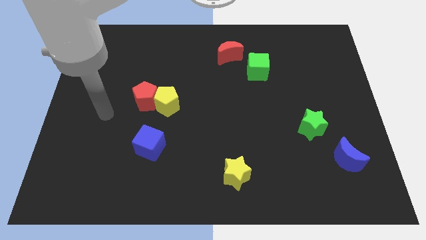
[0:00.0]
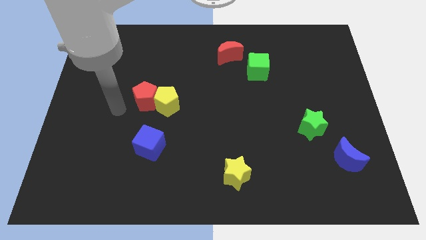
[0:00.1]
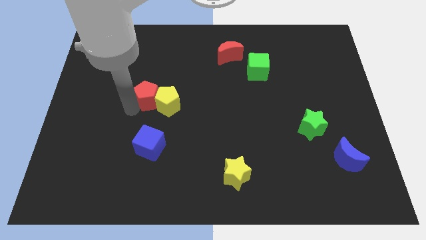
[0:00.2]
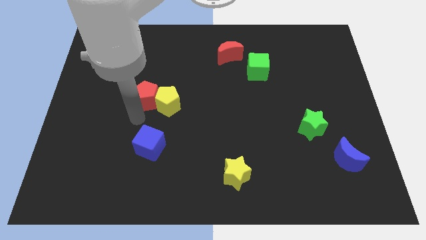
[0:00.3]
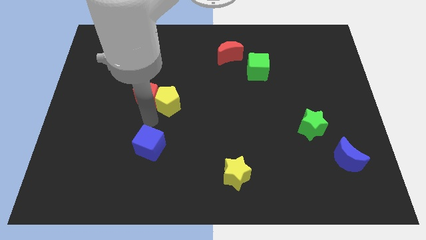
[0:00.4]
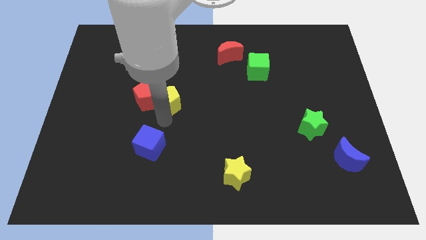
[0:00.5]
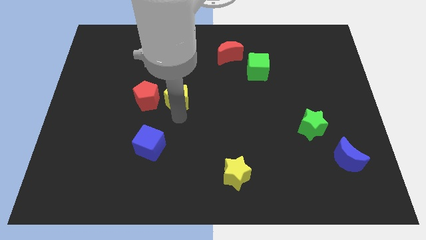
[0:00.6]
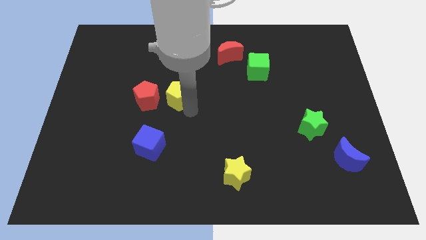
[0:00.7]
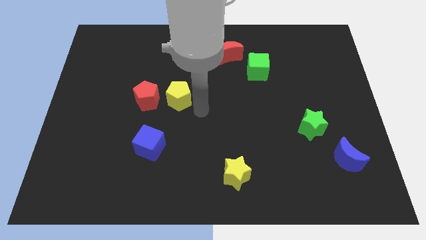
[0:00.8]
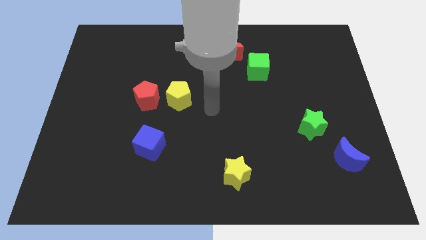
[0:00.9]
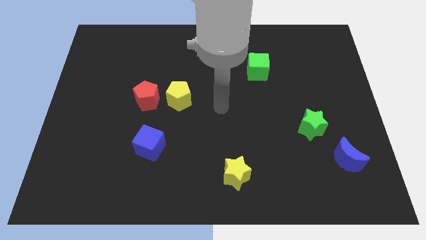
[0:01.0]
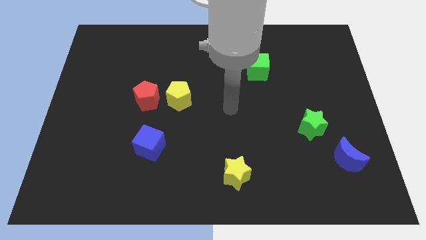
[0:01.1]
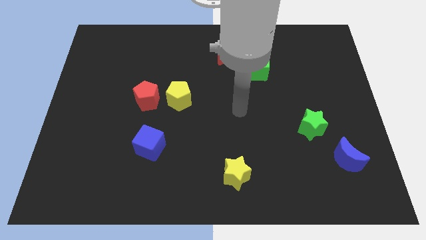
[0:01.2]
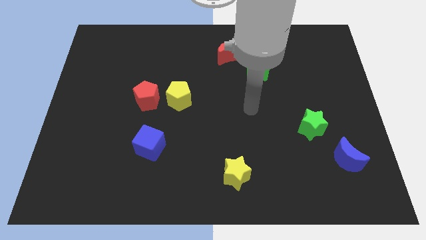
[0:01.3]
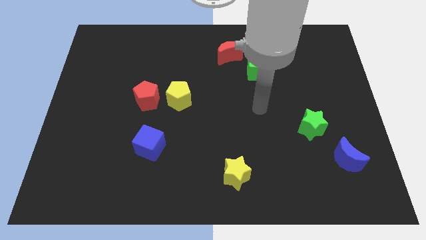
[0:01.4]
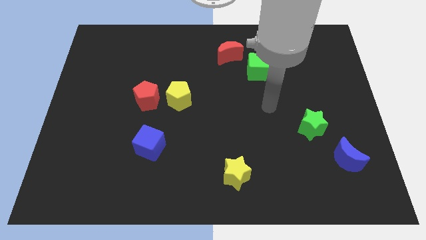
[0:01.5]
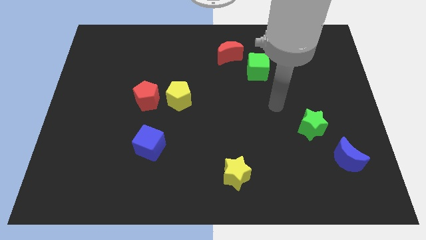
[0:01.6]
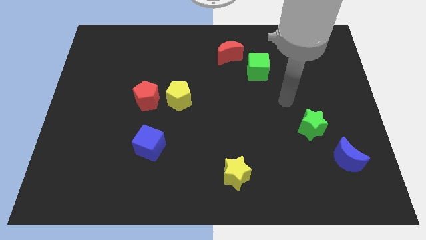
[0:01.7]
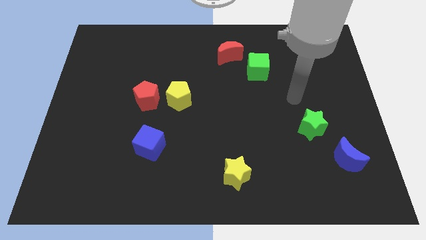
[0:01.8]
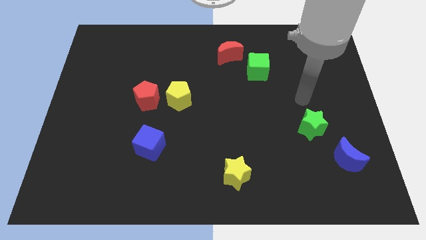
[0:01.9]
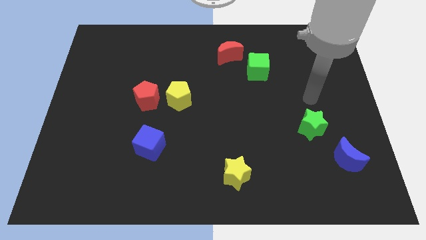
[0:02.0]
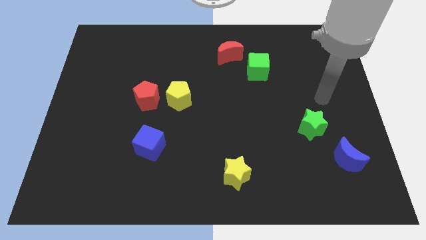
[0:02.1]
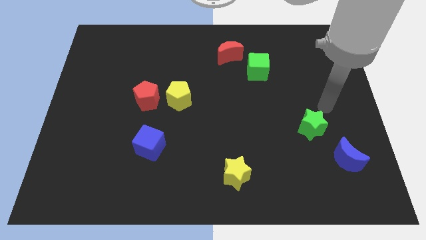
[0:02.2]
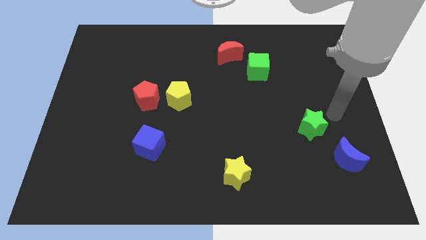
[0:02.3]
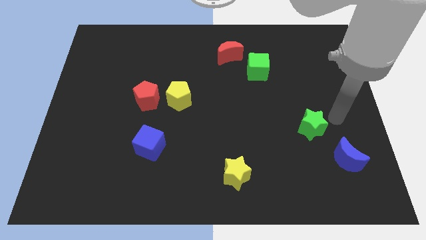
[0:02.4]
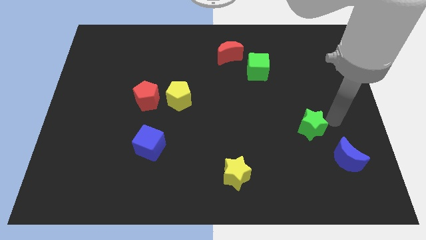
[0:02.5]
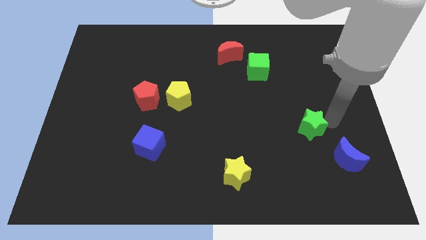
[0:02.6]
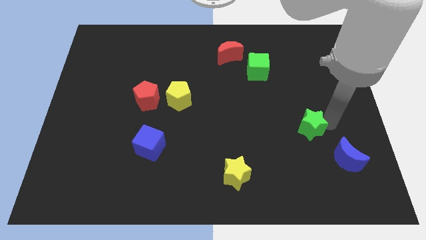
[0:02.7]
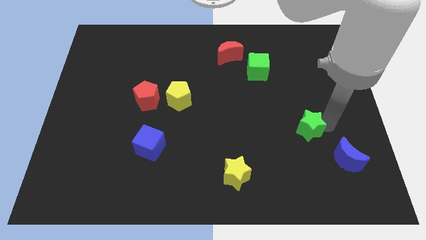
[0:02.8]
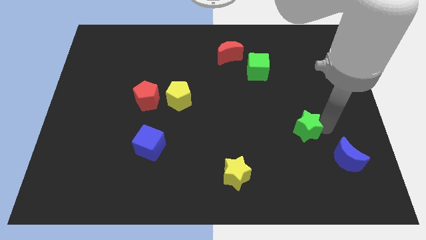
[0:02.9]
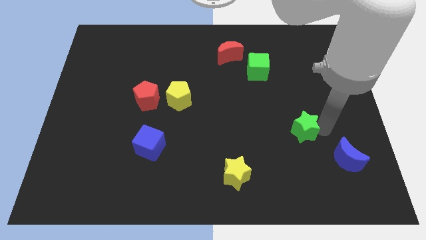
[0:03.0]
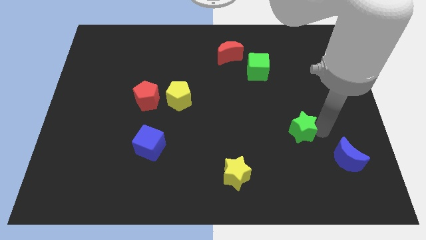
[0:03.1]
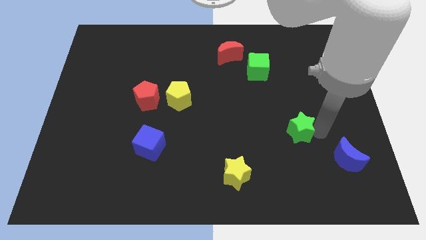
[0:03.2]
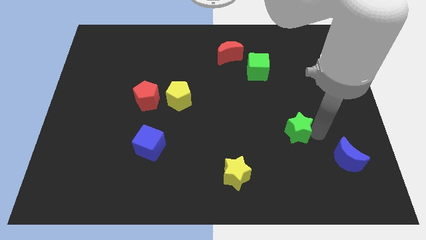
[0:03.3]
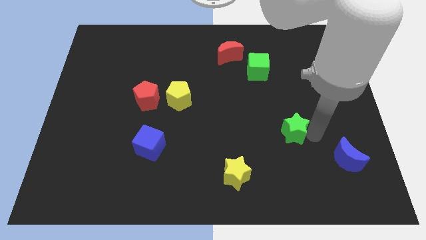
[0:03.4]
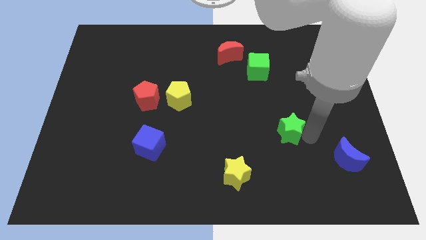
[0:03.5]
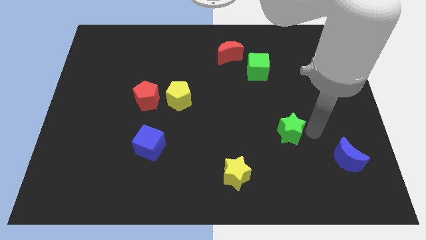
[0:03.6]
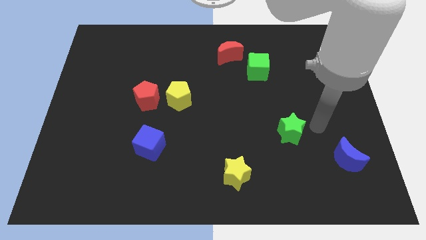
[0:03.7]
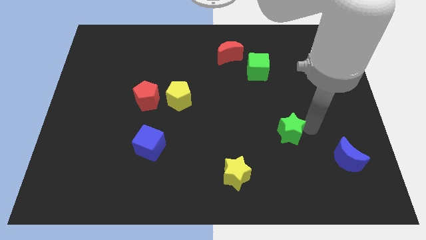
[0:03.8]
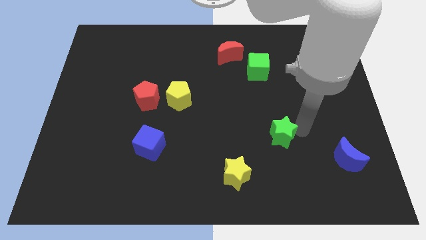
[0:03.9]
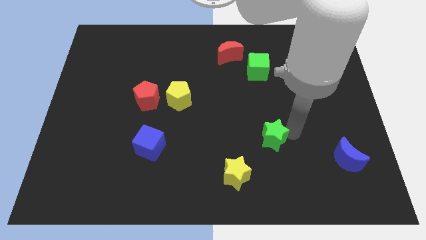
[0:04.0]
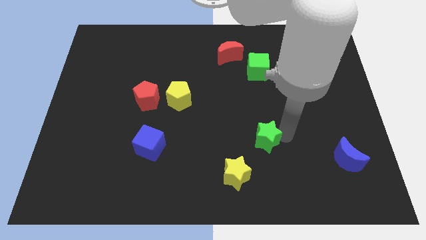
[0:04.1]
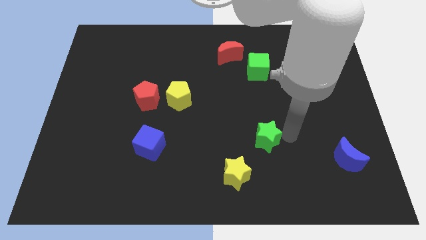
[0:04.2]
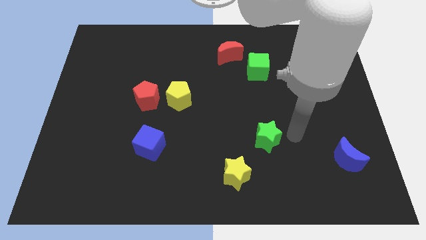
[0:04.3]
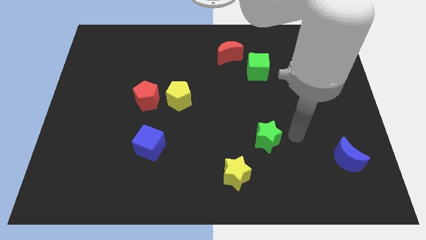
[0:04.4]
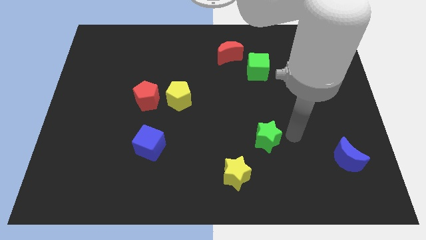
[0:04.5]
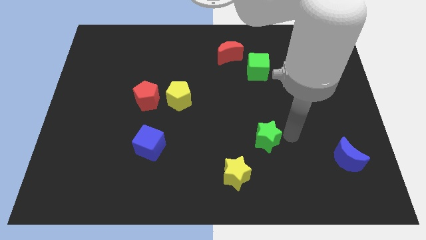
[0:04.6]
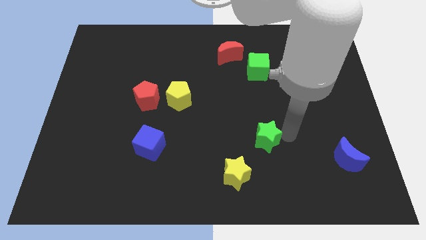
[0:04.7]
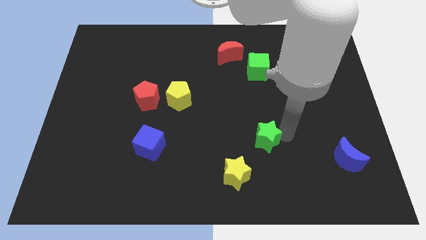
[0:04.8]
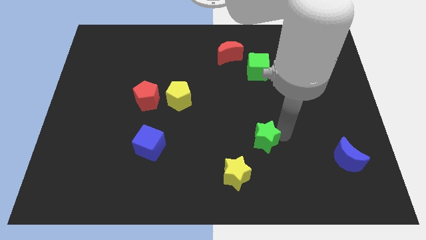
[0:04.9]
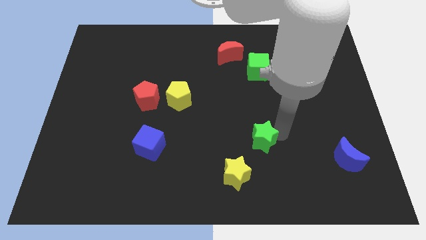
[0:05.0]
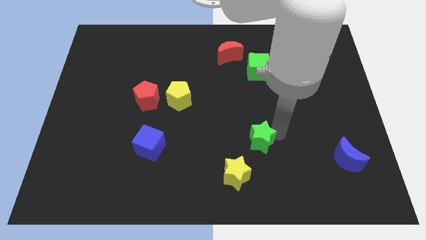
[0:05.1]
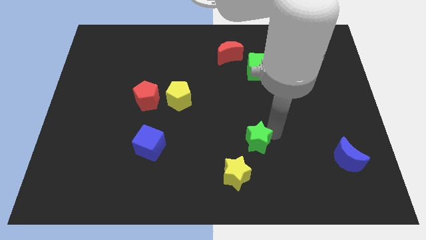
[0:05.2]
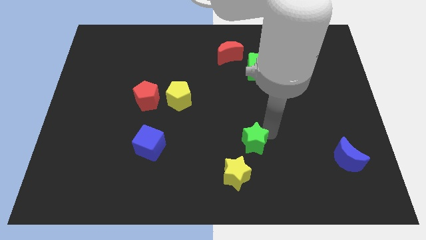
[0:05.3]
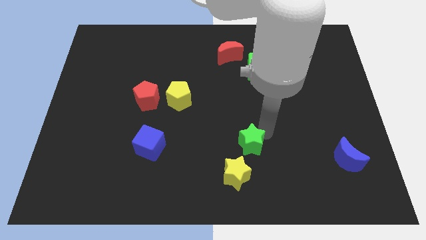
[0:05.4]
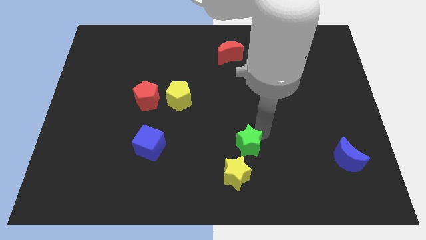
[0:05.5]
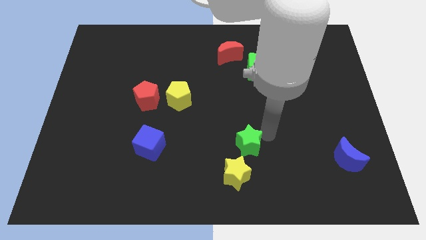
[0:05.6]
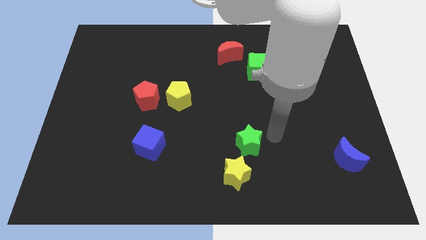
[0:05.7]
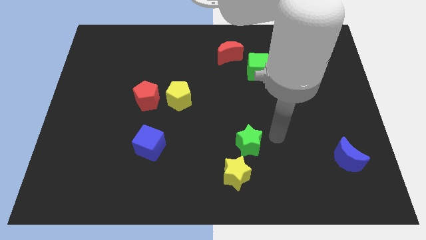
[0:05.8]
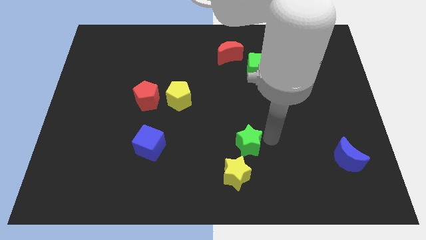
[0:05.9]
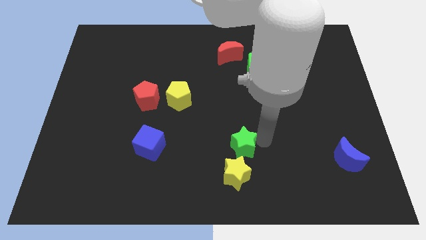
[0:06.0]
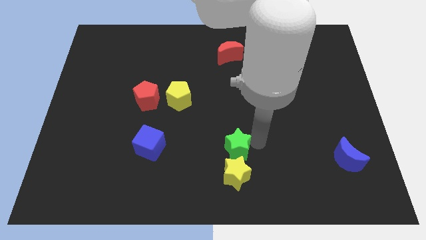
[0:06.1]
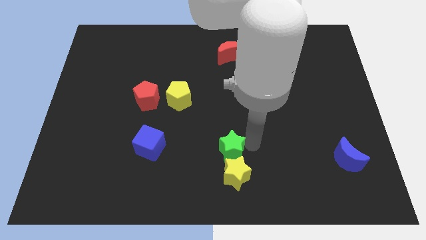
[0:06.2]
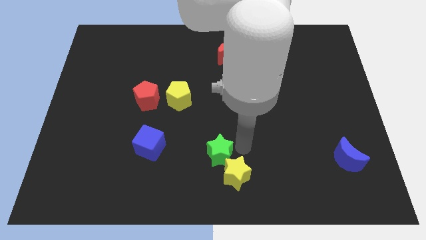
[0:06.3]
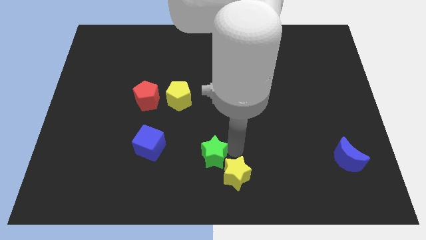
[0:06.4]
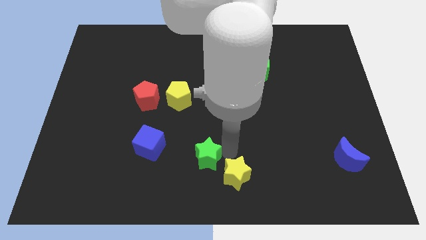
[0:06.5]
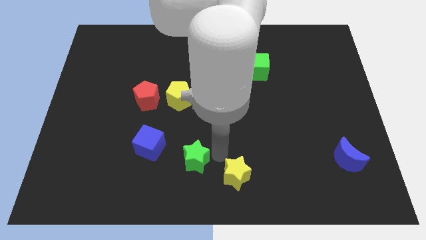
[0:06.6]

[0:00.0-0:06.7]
put the green star to the bottom right of the blue cube
